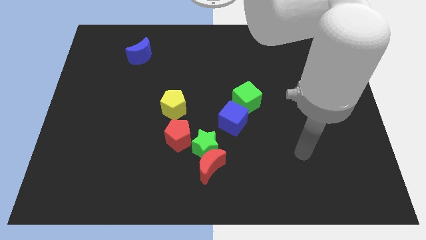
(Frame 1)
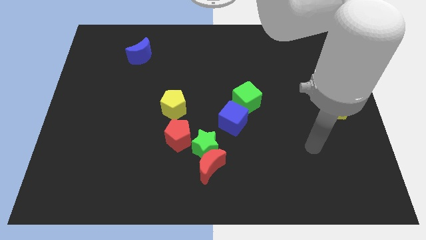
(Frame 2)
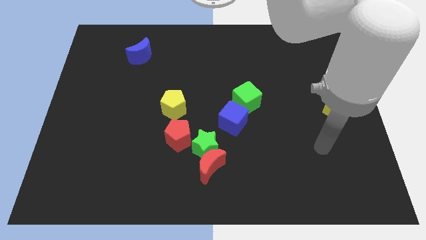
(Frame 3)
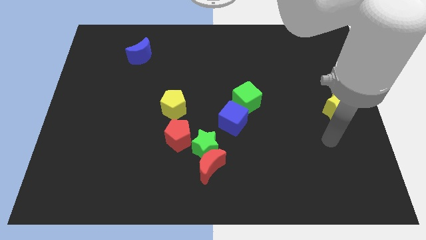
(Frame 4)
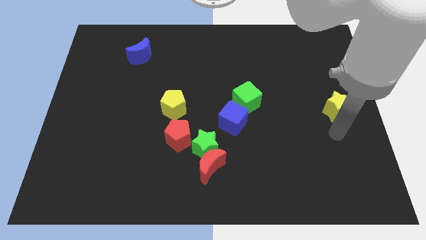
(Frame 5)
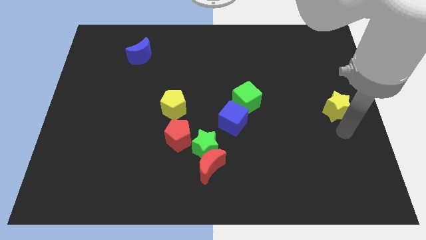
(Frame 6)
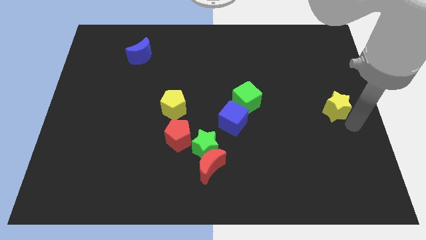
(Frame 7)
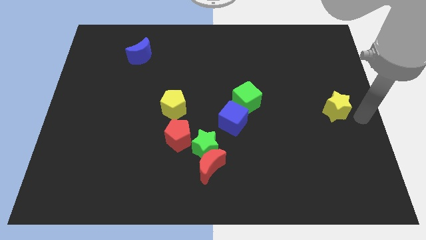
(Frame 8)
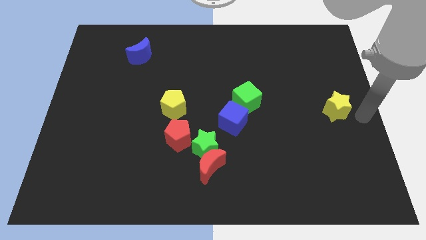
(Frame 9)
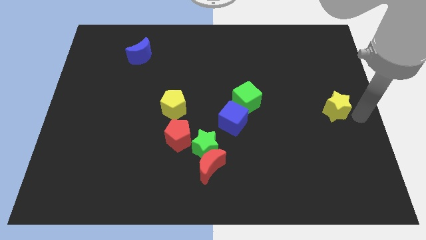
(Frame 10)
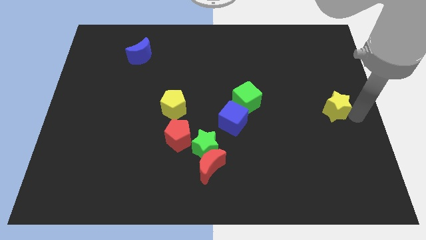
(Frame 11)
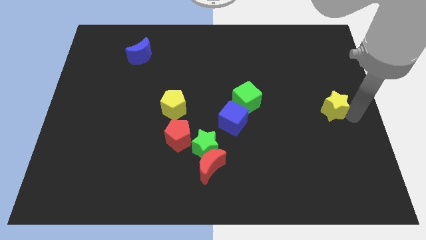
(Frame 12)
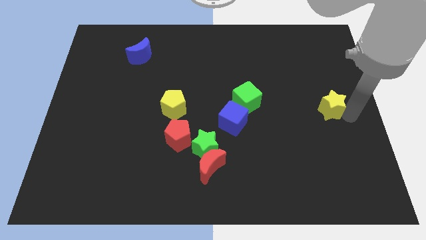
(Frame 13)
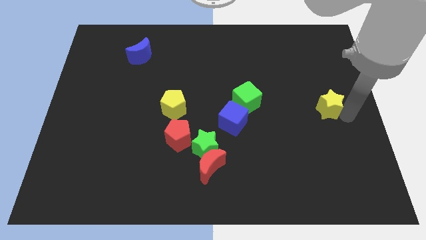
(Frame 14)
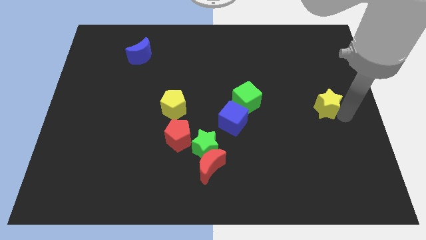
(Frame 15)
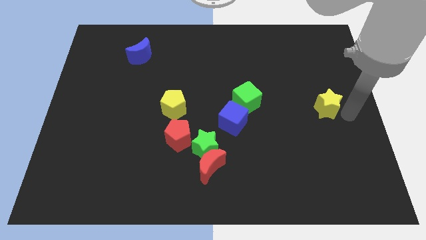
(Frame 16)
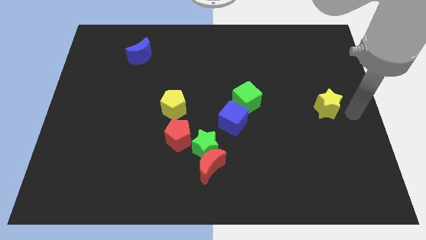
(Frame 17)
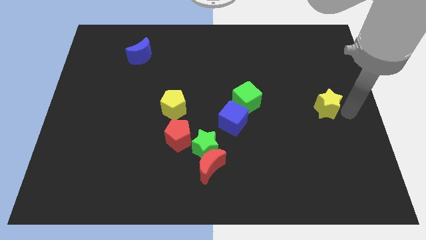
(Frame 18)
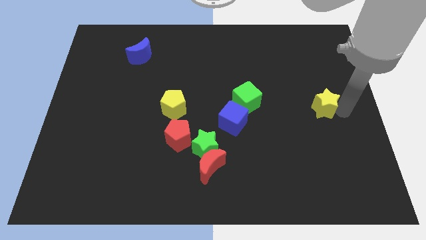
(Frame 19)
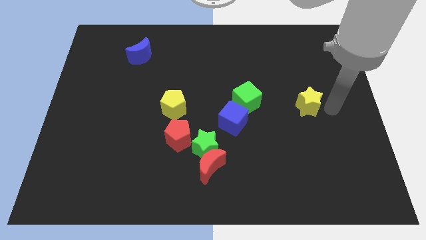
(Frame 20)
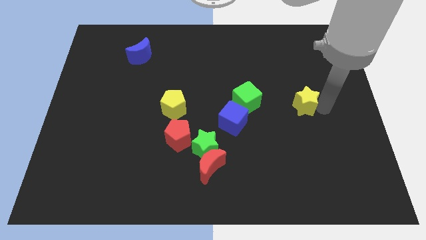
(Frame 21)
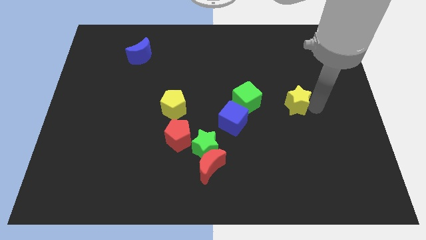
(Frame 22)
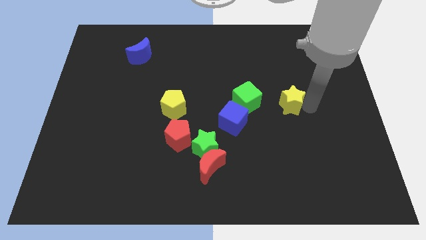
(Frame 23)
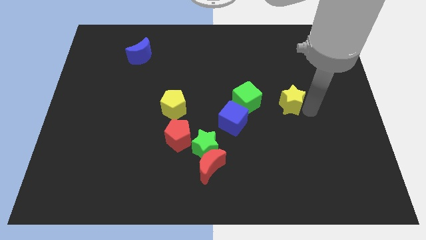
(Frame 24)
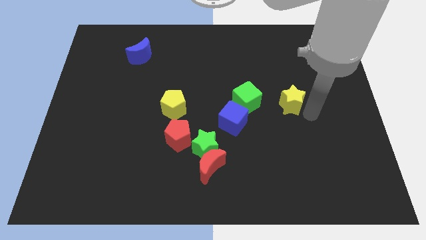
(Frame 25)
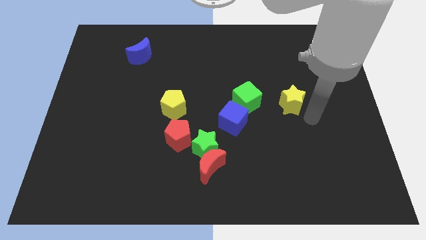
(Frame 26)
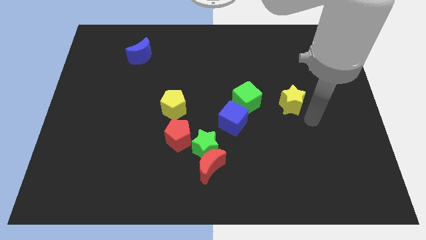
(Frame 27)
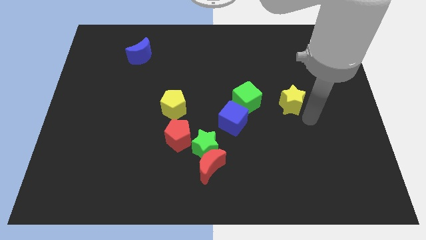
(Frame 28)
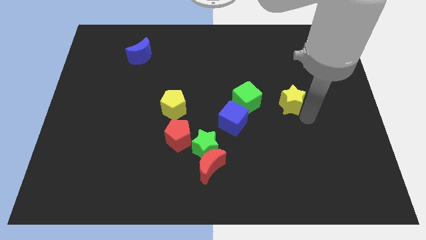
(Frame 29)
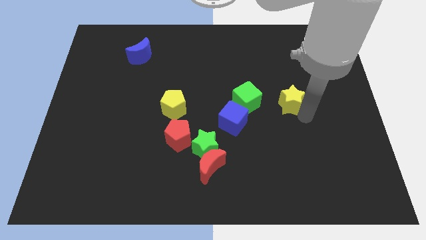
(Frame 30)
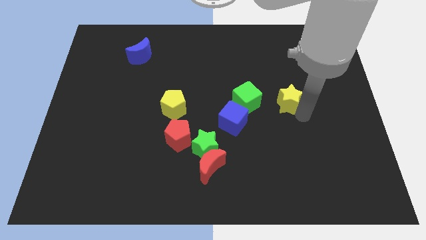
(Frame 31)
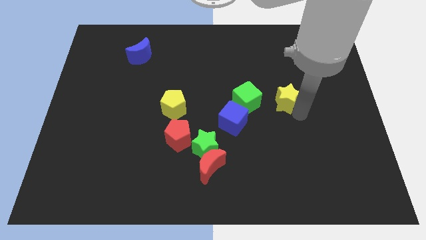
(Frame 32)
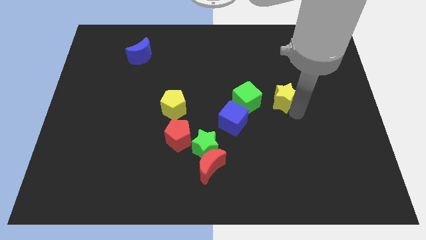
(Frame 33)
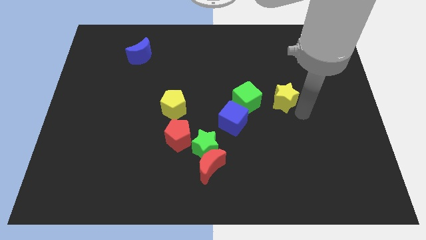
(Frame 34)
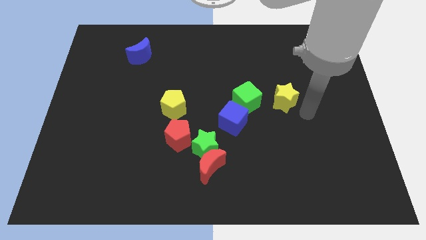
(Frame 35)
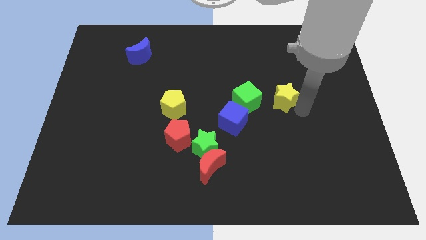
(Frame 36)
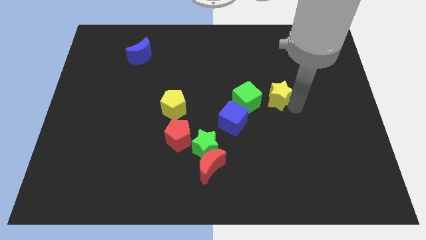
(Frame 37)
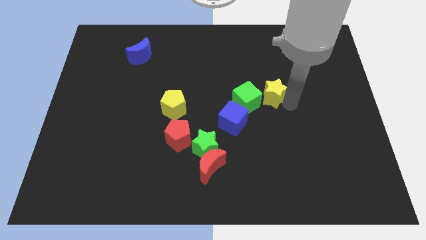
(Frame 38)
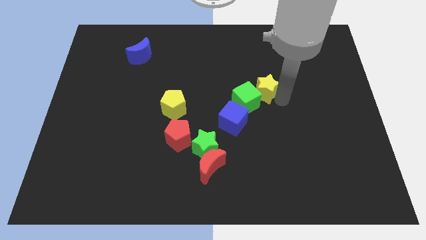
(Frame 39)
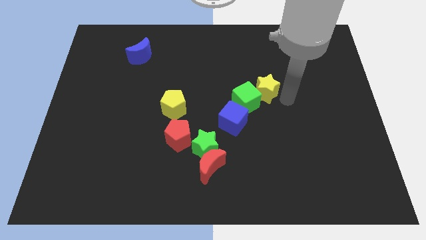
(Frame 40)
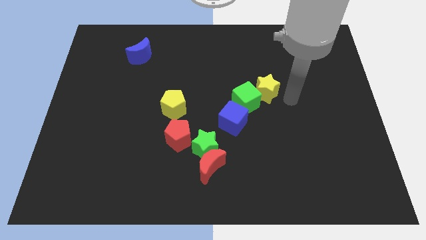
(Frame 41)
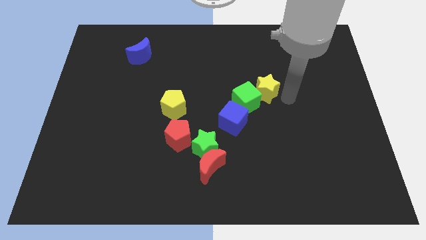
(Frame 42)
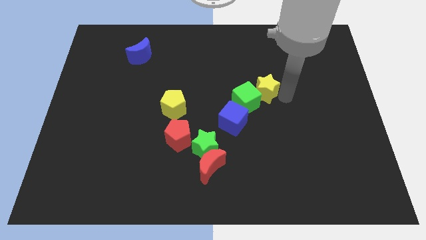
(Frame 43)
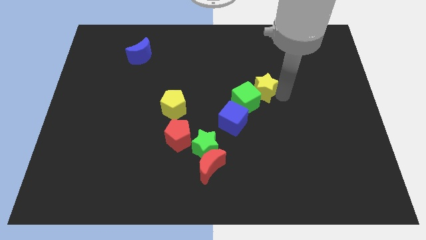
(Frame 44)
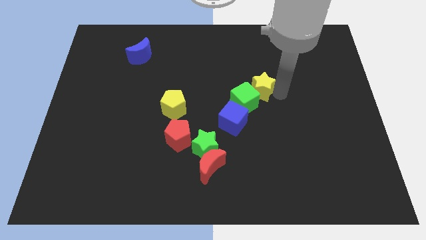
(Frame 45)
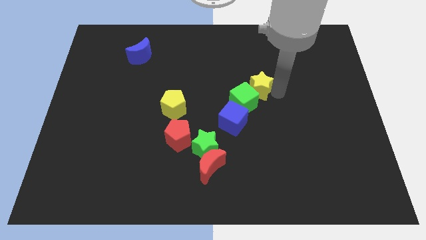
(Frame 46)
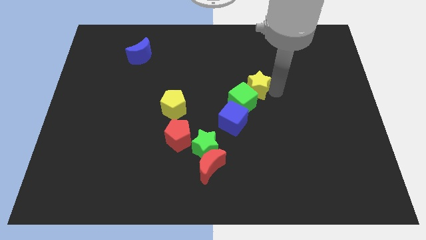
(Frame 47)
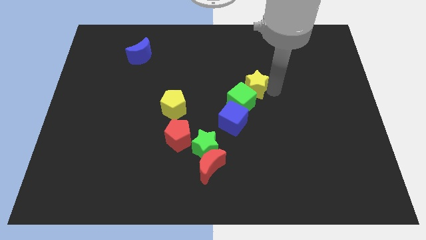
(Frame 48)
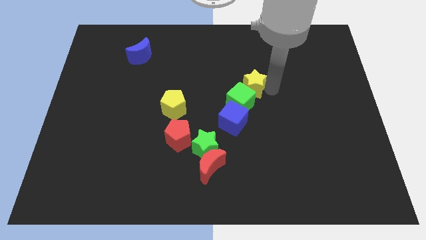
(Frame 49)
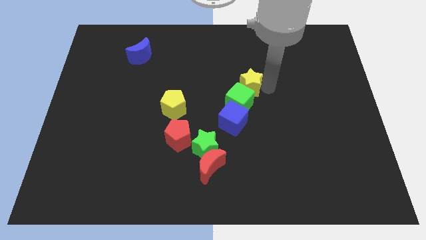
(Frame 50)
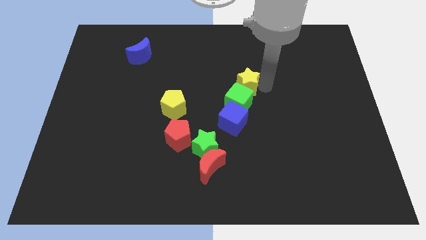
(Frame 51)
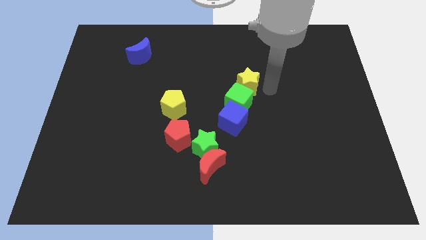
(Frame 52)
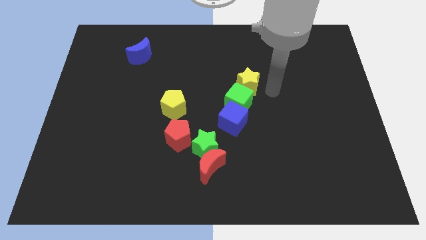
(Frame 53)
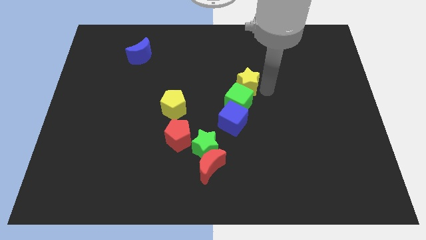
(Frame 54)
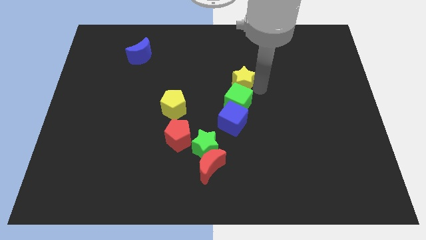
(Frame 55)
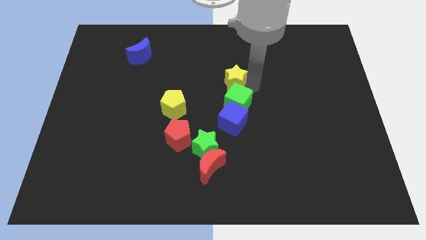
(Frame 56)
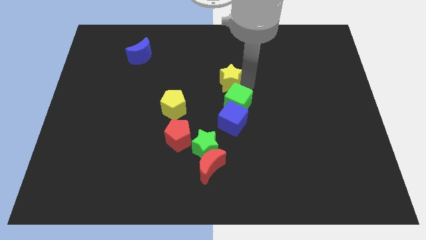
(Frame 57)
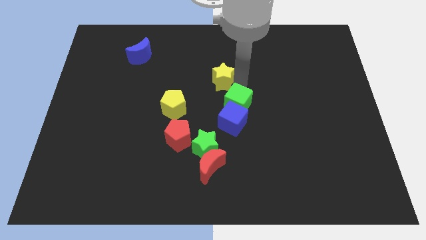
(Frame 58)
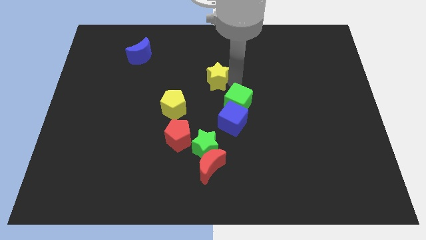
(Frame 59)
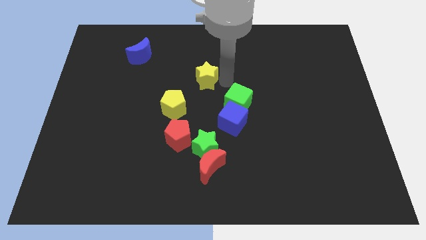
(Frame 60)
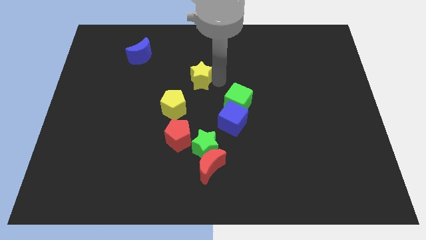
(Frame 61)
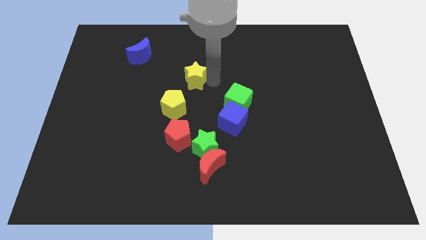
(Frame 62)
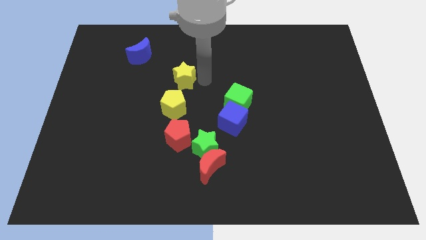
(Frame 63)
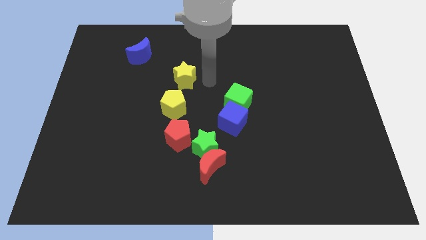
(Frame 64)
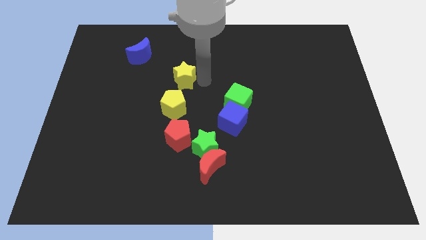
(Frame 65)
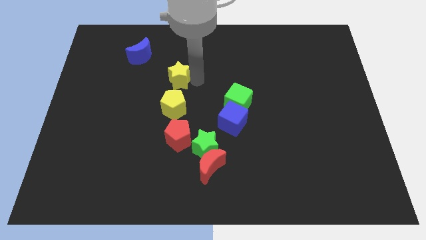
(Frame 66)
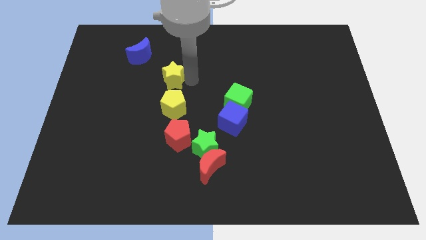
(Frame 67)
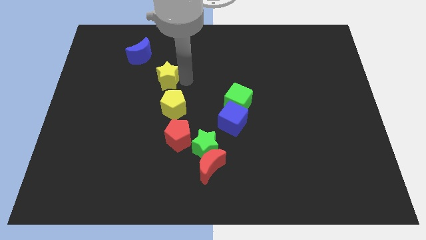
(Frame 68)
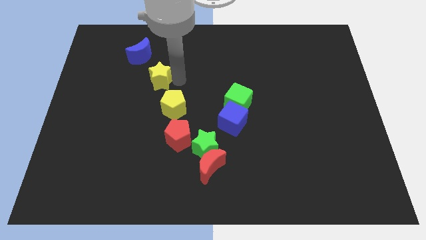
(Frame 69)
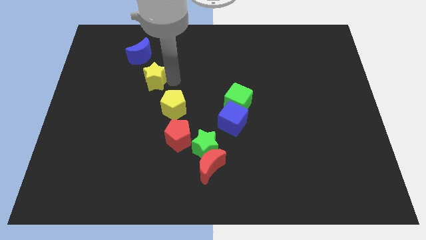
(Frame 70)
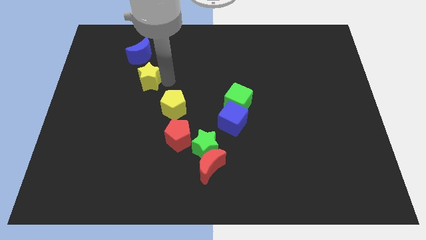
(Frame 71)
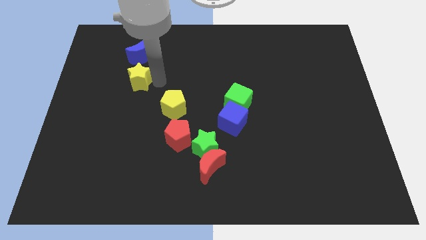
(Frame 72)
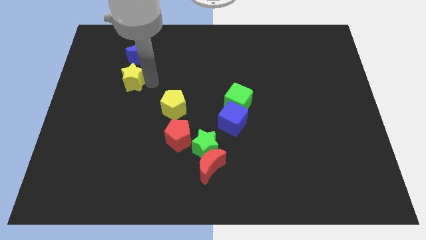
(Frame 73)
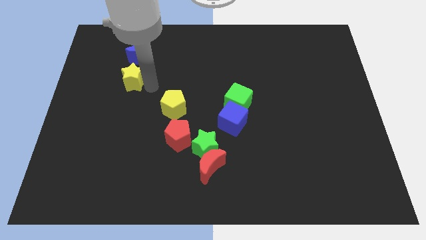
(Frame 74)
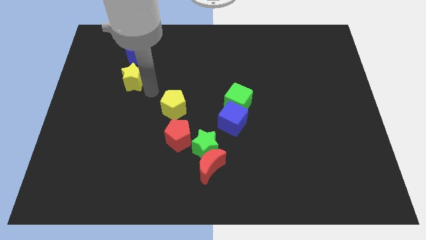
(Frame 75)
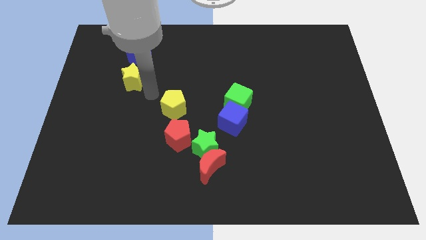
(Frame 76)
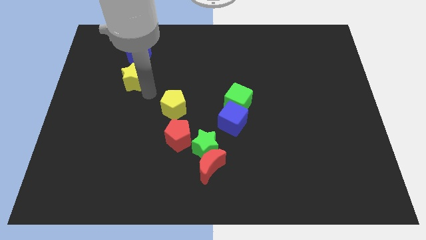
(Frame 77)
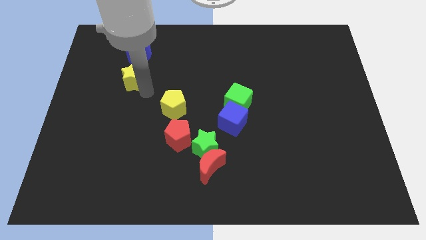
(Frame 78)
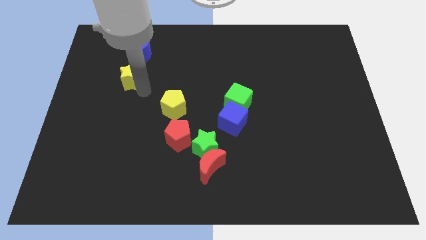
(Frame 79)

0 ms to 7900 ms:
push the yellow star to the bottom left side of the blue moon

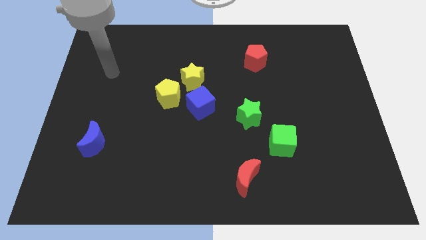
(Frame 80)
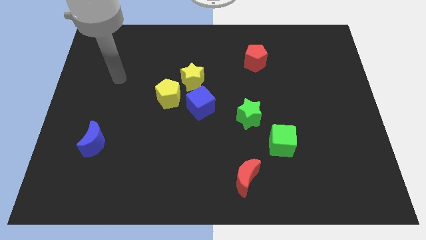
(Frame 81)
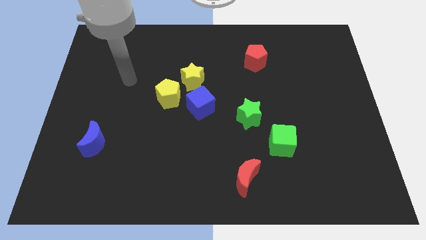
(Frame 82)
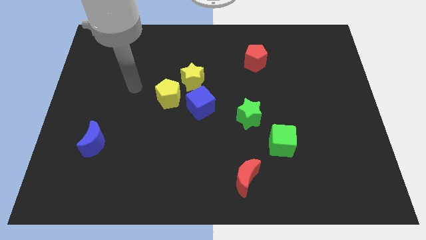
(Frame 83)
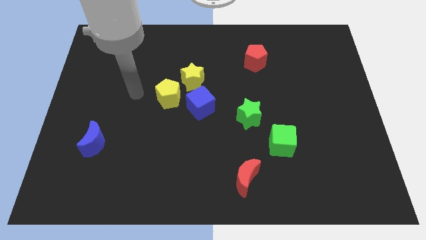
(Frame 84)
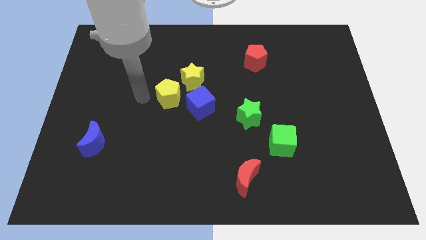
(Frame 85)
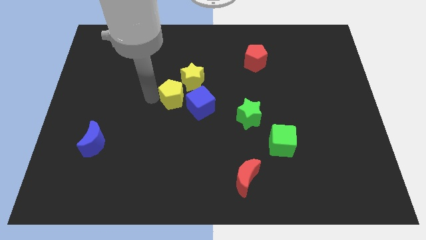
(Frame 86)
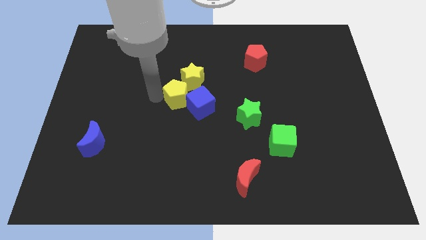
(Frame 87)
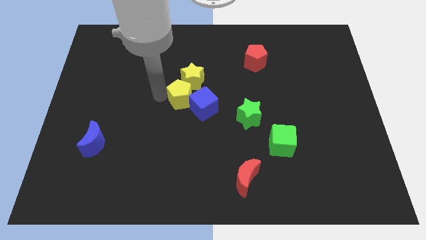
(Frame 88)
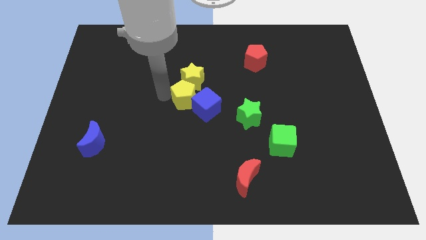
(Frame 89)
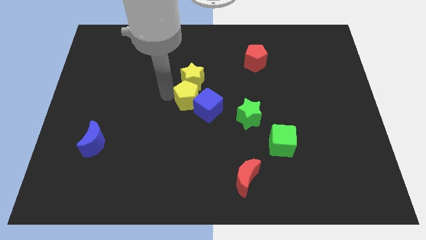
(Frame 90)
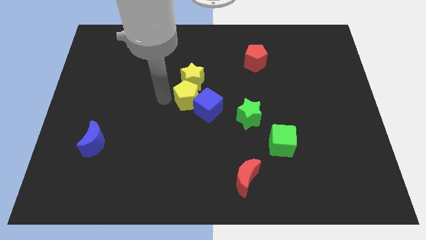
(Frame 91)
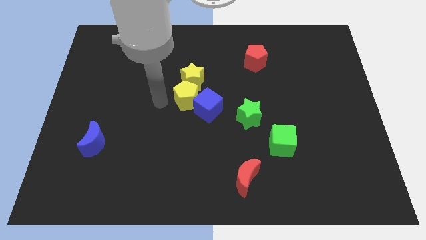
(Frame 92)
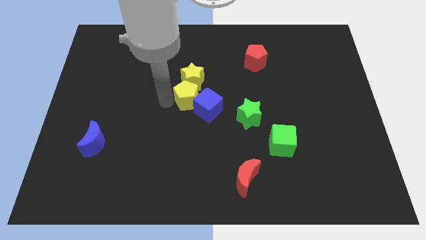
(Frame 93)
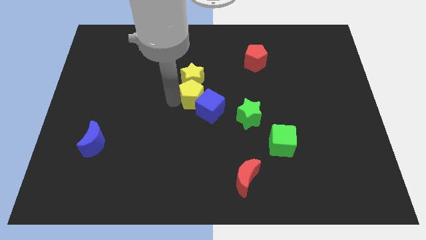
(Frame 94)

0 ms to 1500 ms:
move the yellow pentagon to the bottom right of the yellow star
